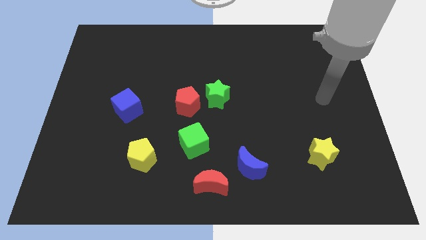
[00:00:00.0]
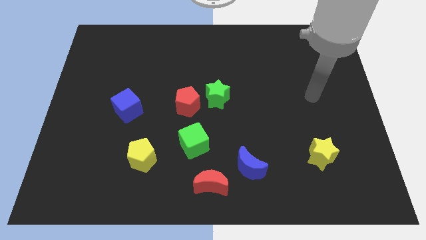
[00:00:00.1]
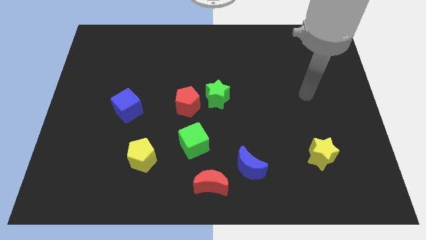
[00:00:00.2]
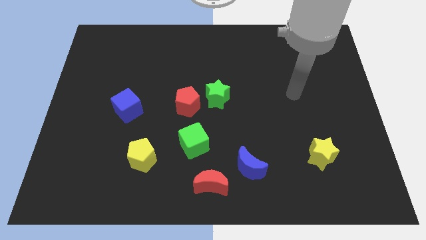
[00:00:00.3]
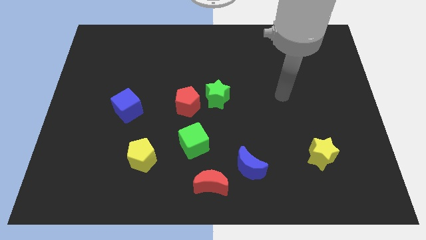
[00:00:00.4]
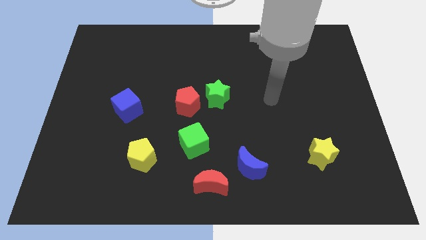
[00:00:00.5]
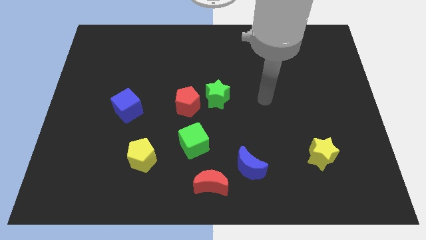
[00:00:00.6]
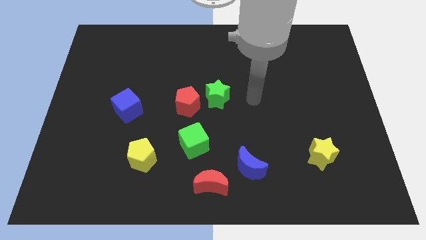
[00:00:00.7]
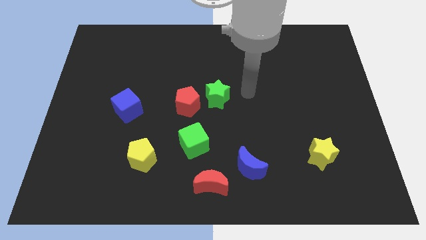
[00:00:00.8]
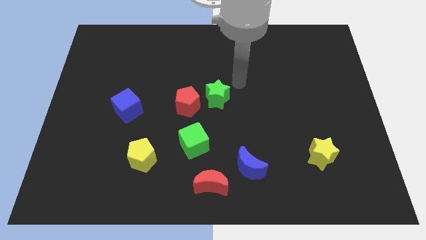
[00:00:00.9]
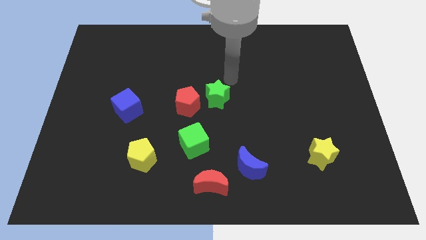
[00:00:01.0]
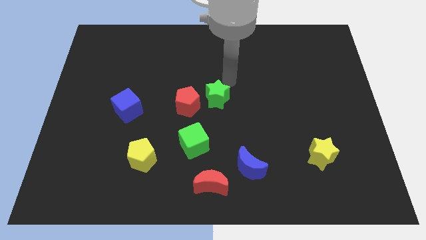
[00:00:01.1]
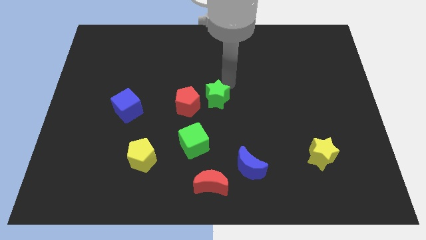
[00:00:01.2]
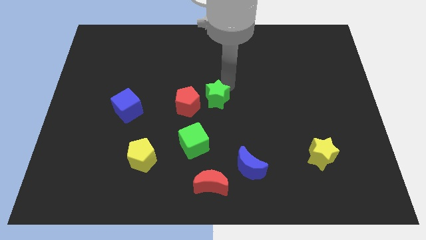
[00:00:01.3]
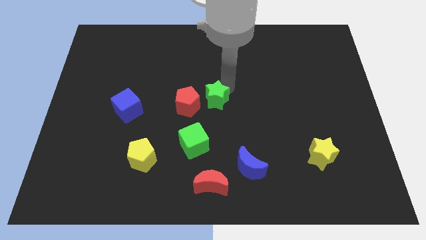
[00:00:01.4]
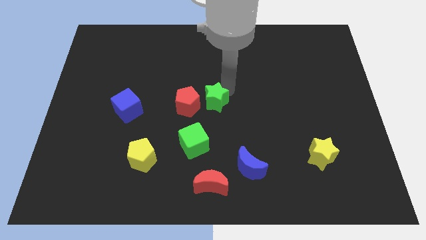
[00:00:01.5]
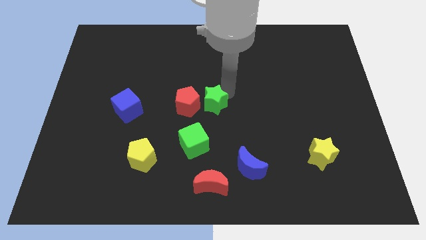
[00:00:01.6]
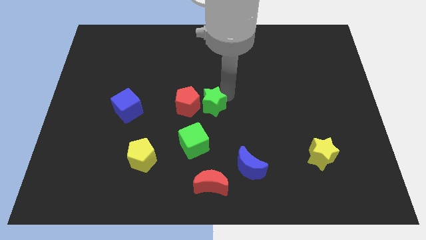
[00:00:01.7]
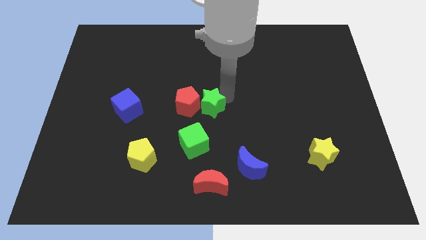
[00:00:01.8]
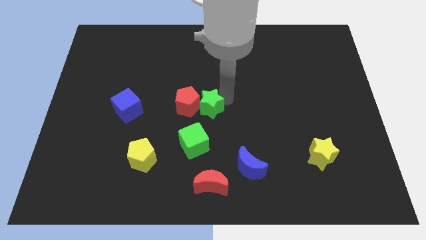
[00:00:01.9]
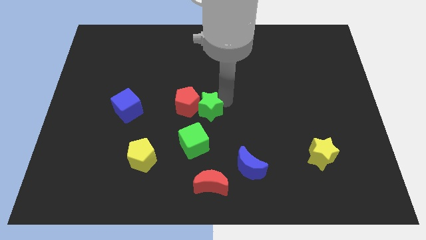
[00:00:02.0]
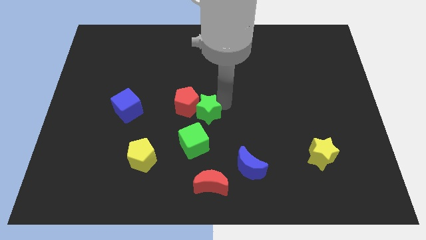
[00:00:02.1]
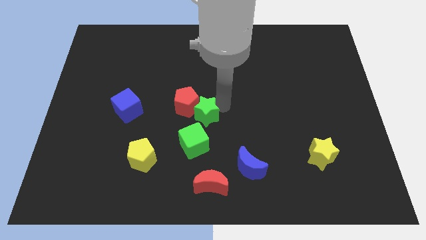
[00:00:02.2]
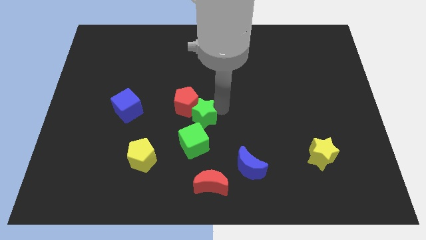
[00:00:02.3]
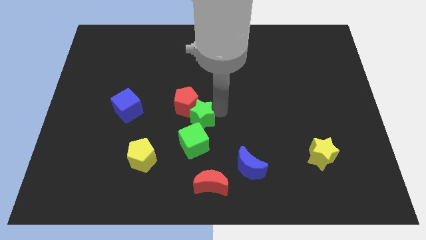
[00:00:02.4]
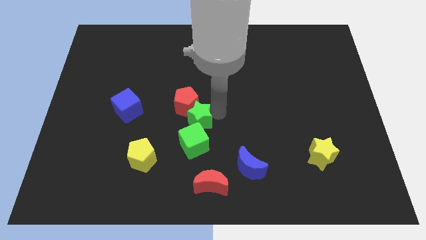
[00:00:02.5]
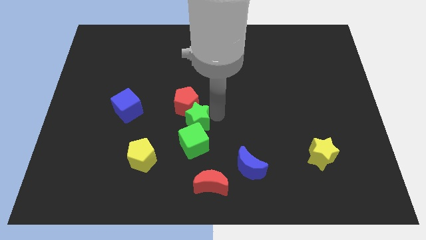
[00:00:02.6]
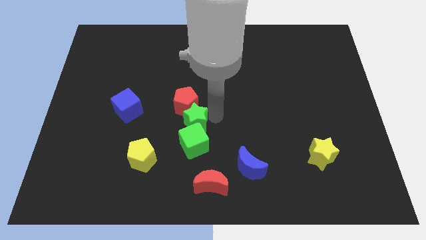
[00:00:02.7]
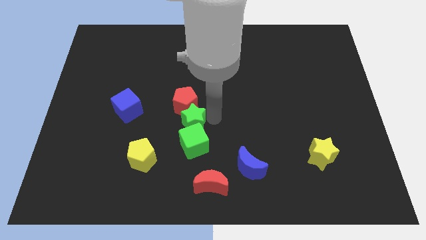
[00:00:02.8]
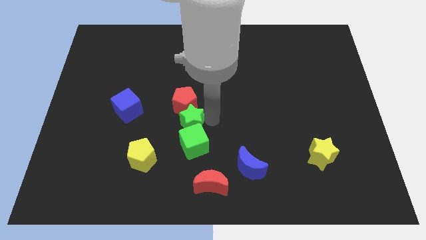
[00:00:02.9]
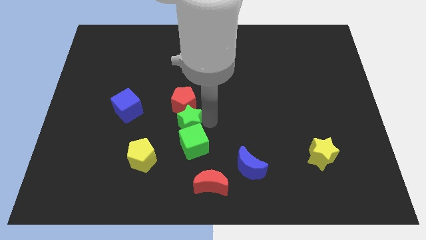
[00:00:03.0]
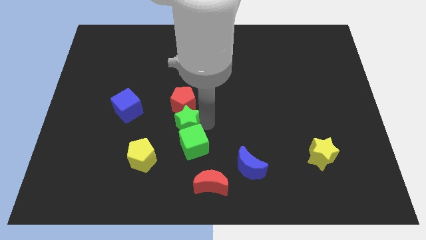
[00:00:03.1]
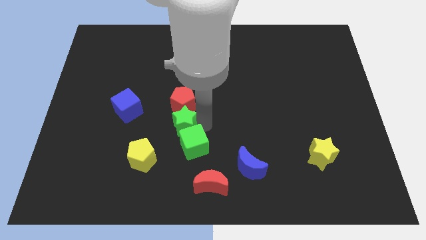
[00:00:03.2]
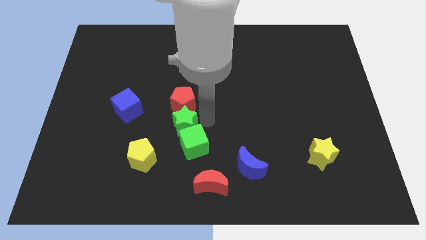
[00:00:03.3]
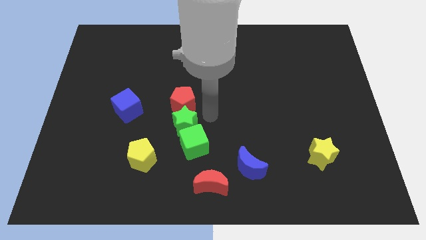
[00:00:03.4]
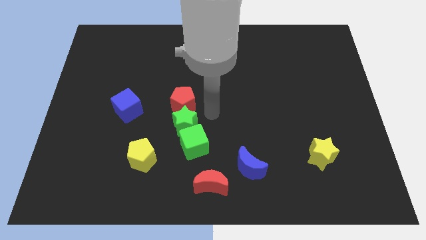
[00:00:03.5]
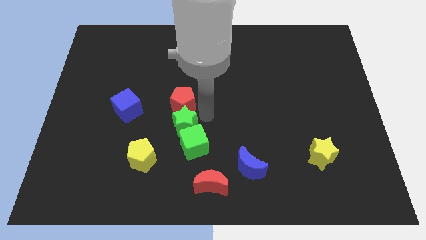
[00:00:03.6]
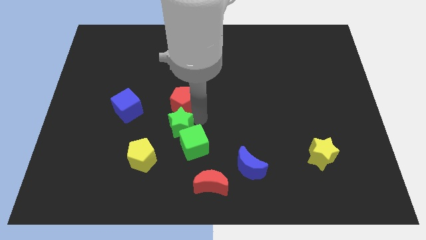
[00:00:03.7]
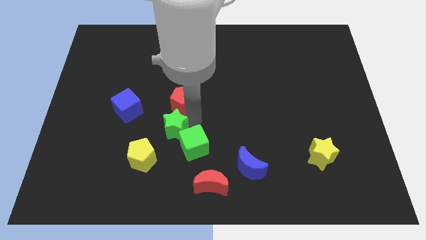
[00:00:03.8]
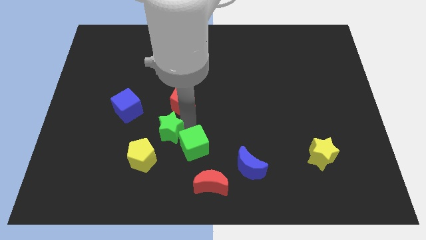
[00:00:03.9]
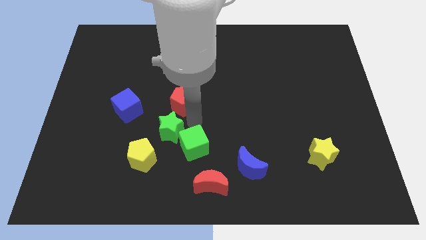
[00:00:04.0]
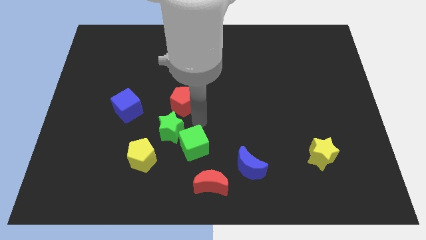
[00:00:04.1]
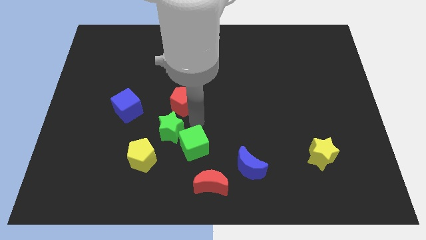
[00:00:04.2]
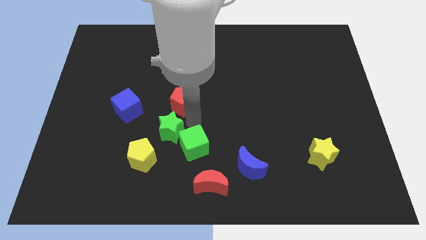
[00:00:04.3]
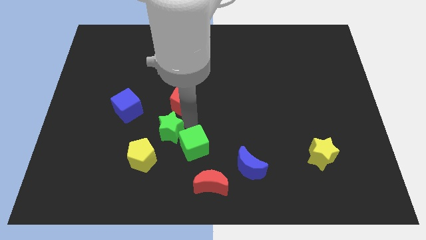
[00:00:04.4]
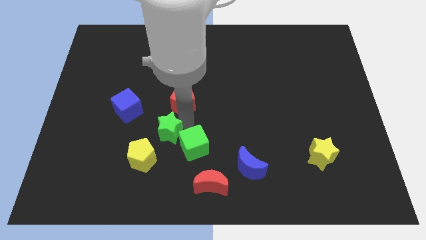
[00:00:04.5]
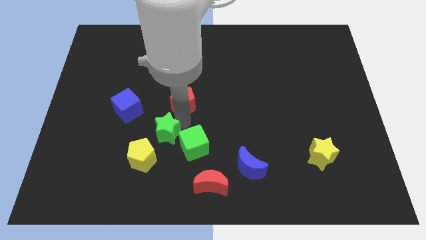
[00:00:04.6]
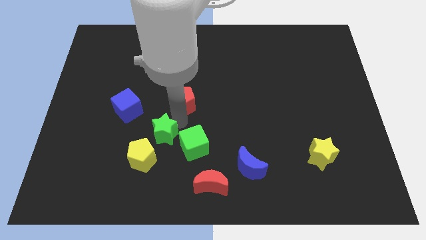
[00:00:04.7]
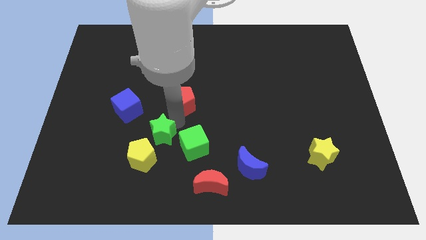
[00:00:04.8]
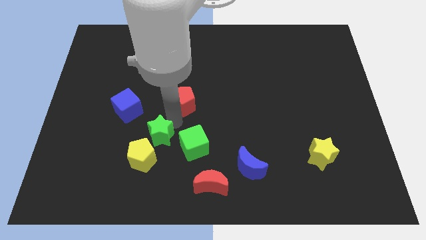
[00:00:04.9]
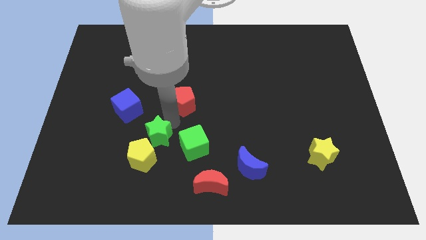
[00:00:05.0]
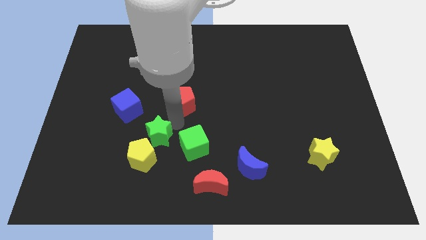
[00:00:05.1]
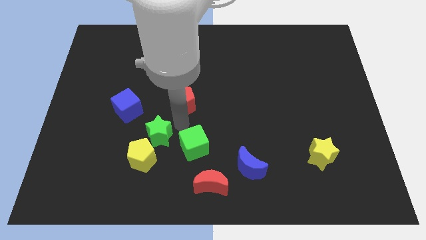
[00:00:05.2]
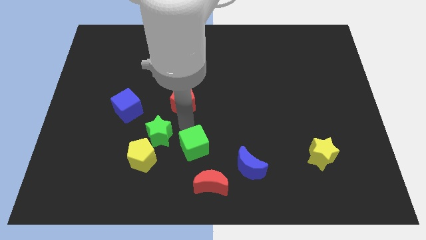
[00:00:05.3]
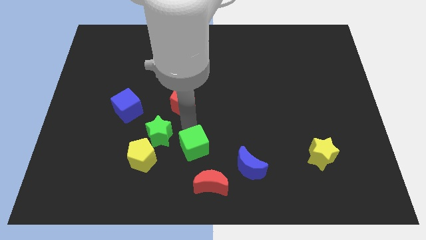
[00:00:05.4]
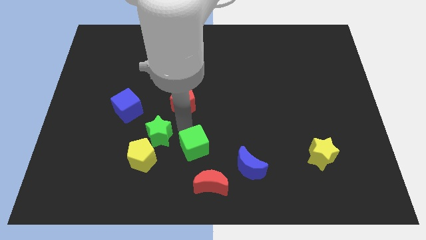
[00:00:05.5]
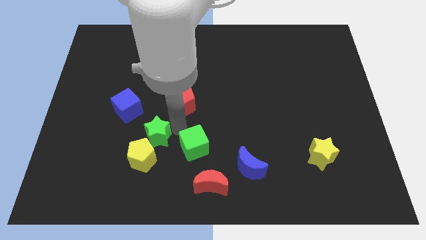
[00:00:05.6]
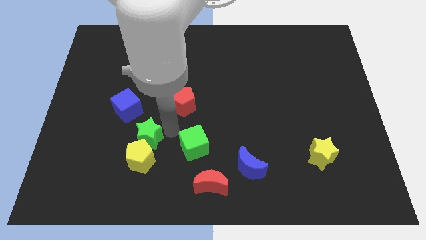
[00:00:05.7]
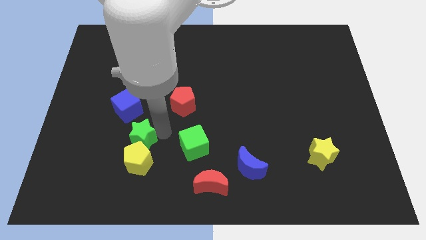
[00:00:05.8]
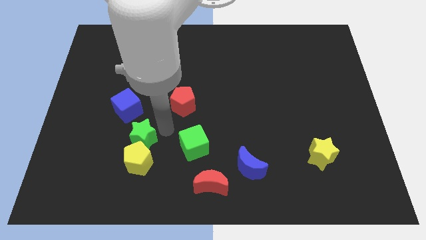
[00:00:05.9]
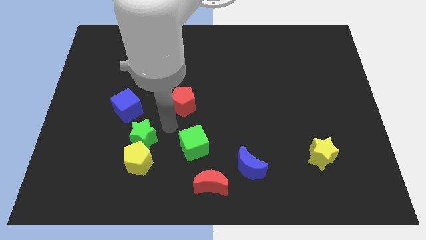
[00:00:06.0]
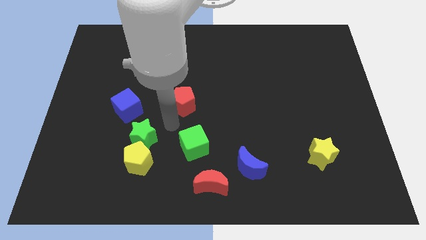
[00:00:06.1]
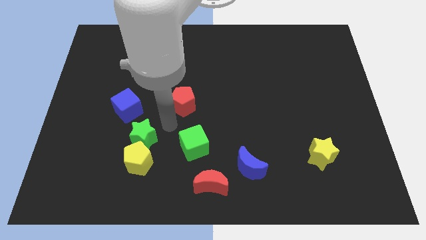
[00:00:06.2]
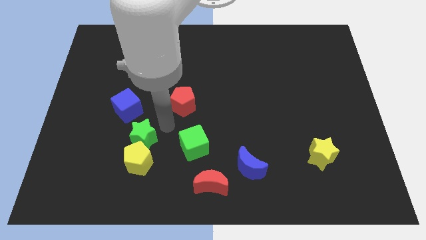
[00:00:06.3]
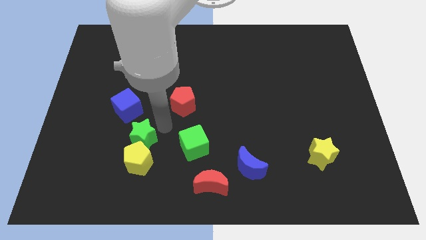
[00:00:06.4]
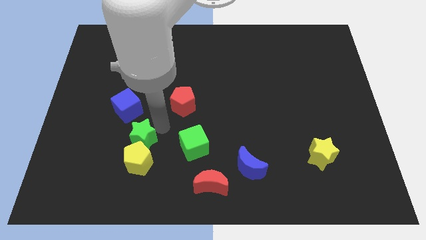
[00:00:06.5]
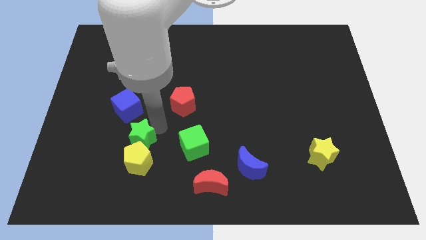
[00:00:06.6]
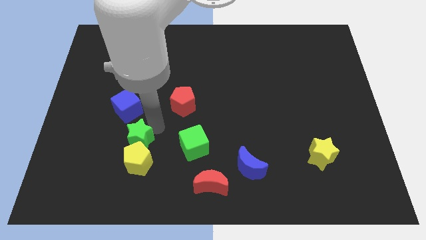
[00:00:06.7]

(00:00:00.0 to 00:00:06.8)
move the green star down and left

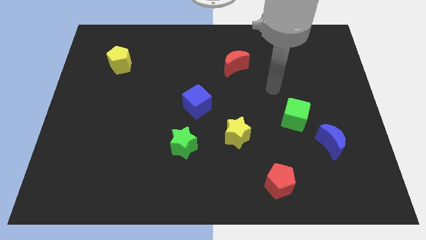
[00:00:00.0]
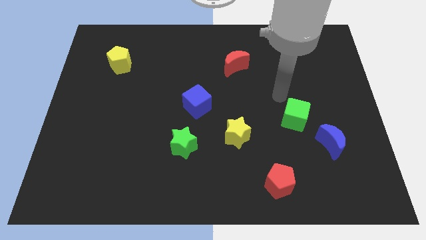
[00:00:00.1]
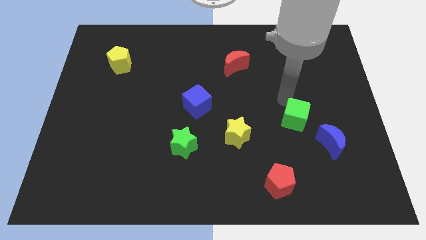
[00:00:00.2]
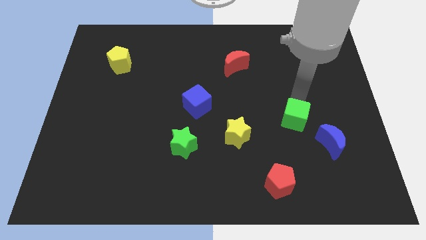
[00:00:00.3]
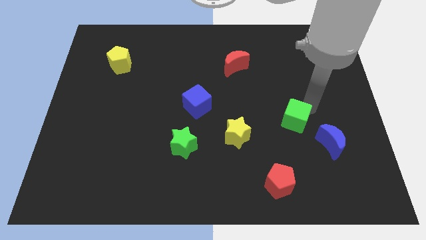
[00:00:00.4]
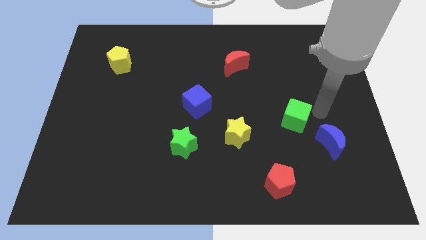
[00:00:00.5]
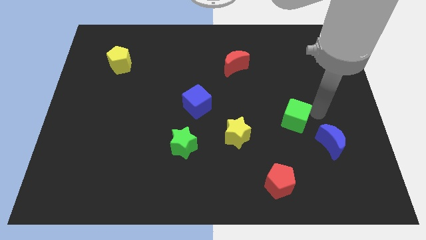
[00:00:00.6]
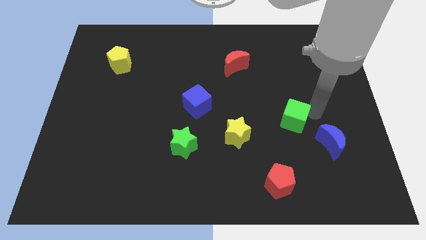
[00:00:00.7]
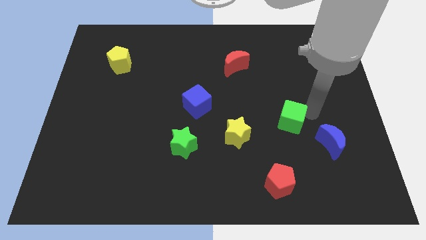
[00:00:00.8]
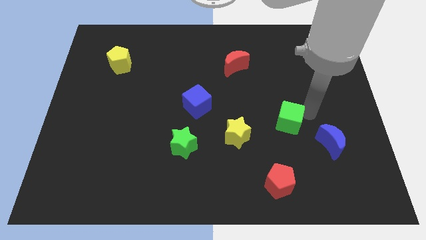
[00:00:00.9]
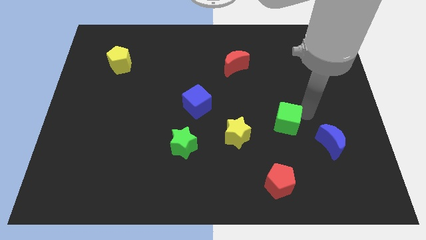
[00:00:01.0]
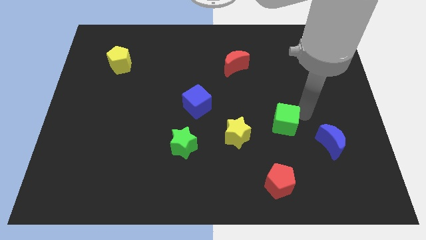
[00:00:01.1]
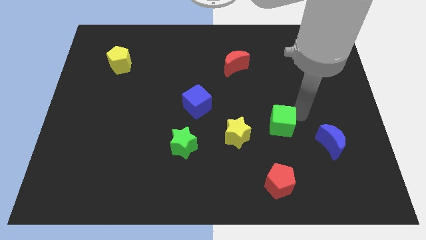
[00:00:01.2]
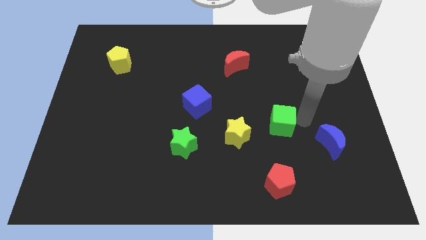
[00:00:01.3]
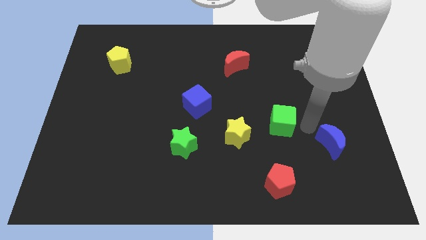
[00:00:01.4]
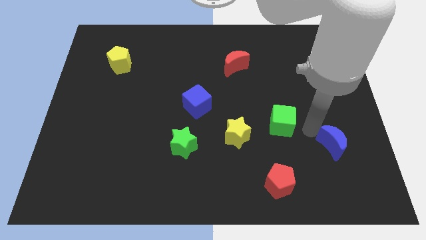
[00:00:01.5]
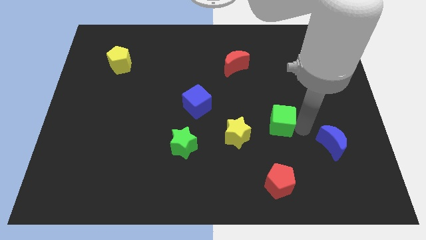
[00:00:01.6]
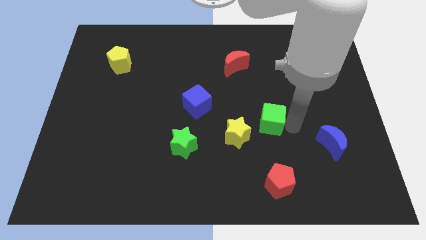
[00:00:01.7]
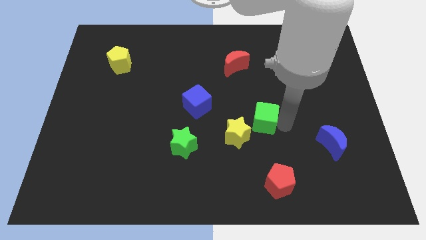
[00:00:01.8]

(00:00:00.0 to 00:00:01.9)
slightly slide the green cube left
